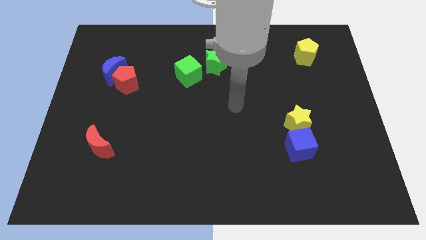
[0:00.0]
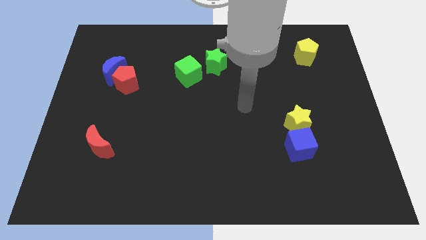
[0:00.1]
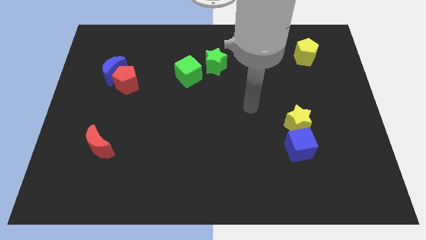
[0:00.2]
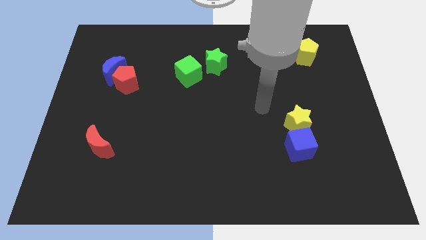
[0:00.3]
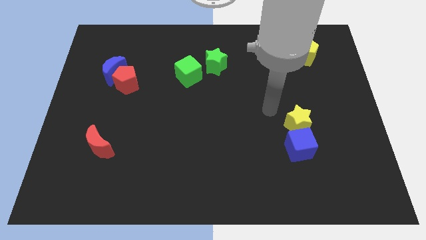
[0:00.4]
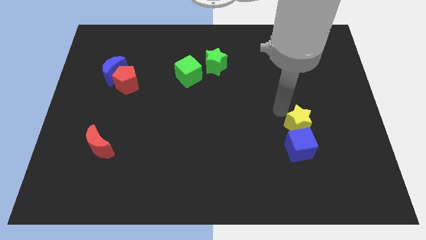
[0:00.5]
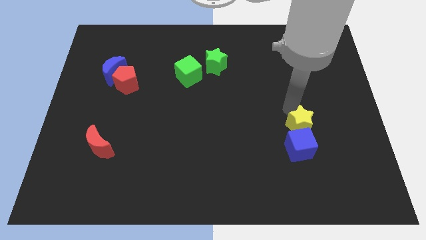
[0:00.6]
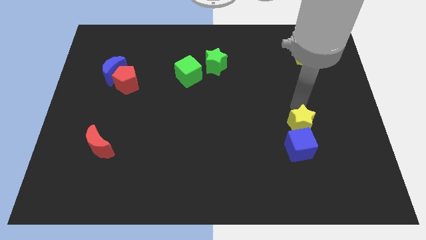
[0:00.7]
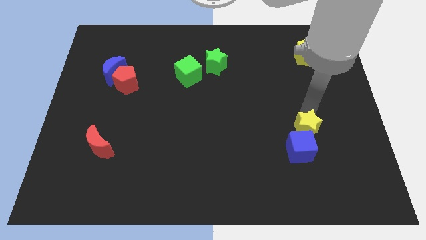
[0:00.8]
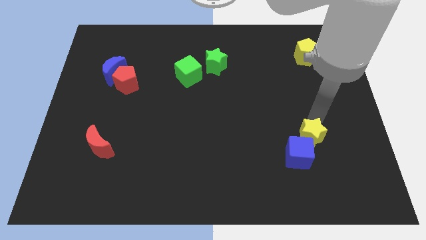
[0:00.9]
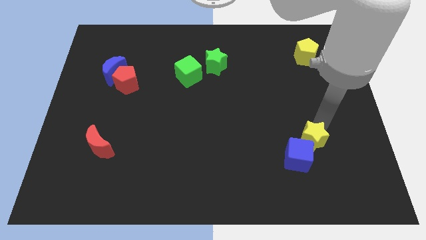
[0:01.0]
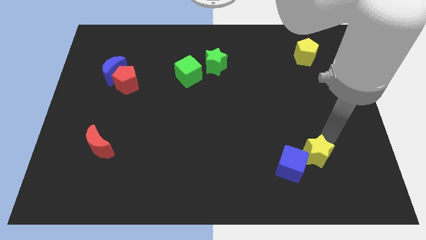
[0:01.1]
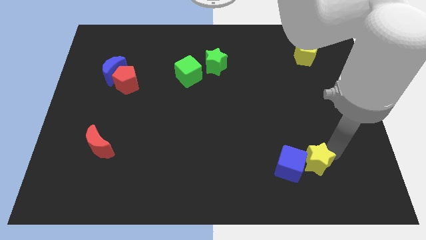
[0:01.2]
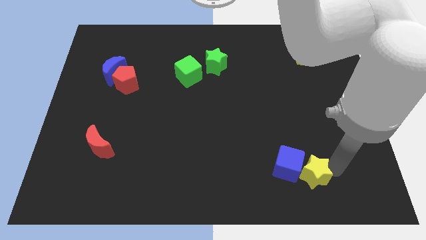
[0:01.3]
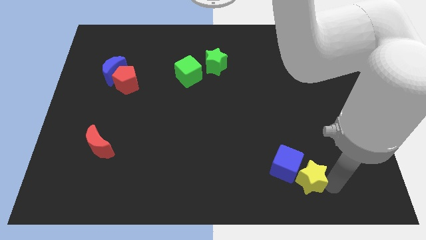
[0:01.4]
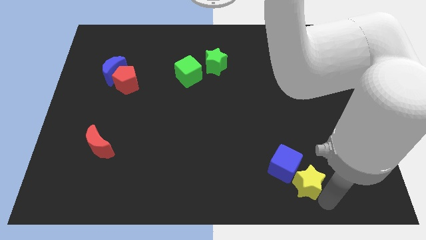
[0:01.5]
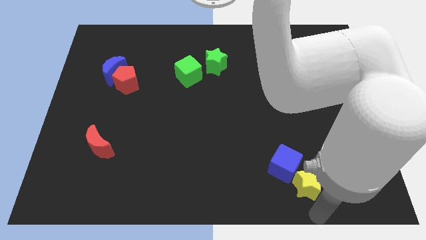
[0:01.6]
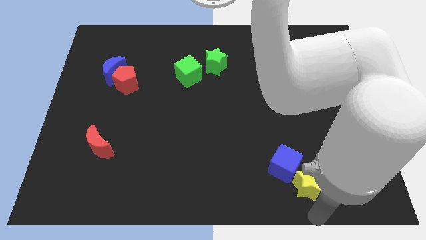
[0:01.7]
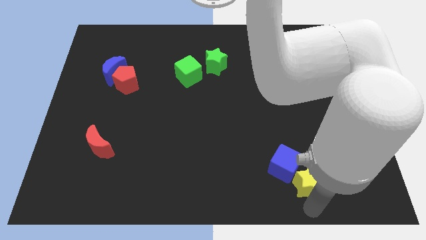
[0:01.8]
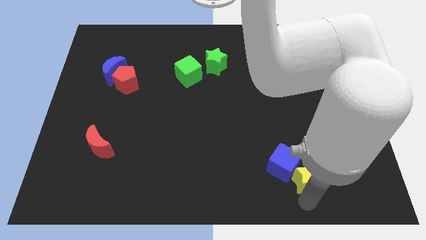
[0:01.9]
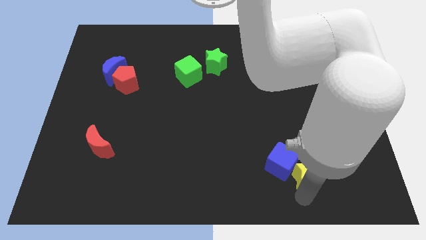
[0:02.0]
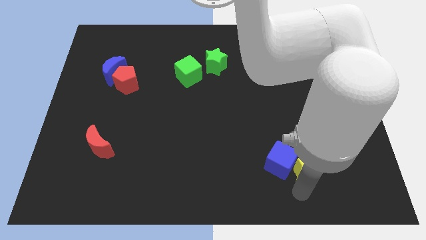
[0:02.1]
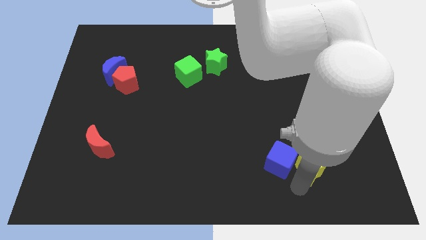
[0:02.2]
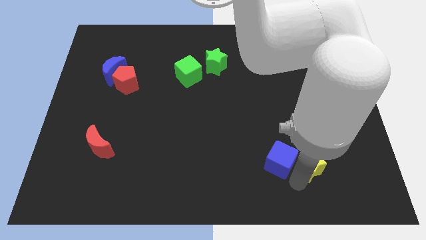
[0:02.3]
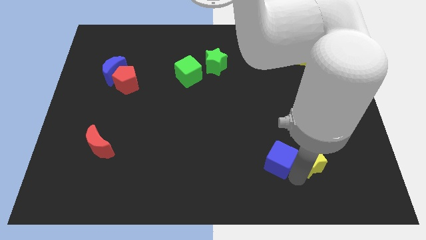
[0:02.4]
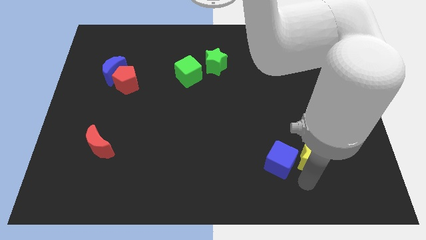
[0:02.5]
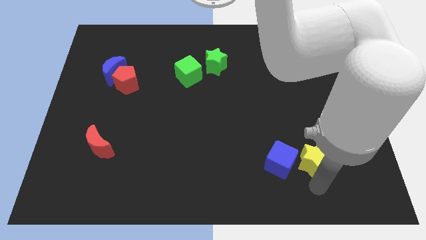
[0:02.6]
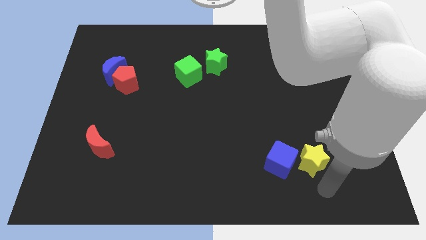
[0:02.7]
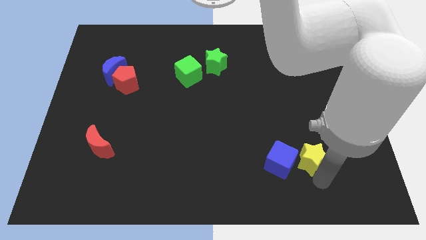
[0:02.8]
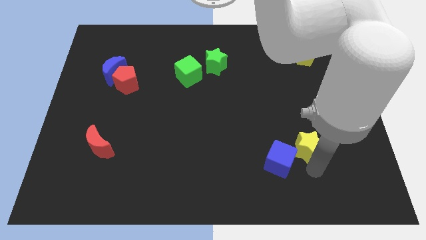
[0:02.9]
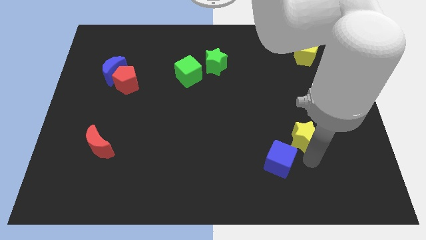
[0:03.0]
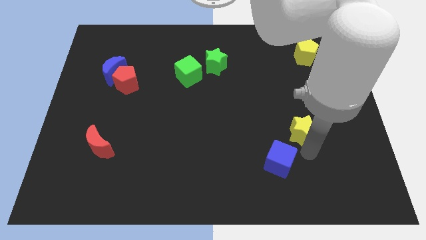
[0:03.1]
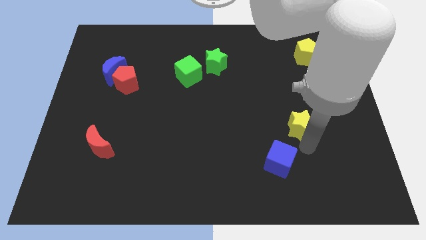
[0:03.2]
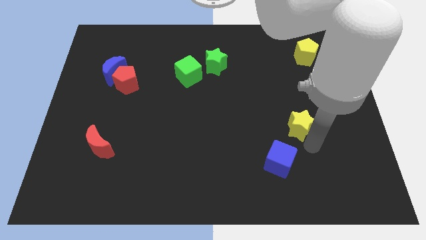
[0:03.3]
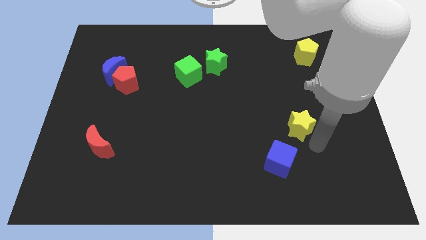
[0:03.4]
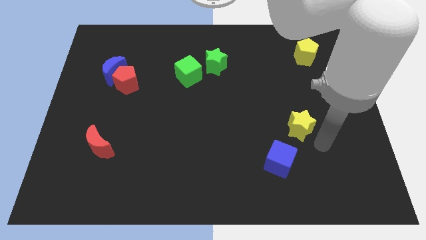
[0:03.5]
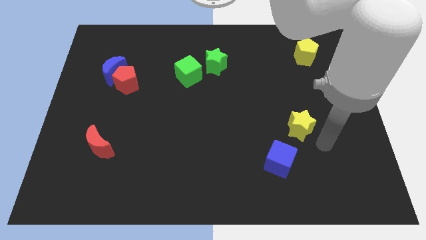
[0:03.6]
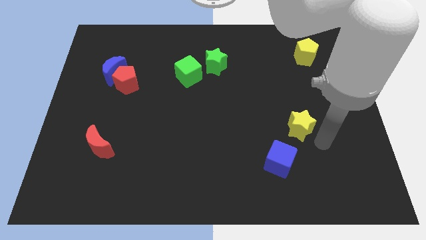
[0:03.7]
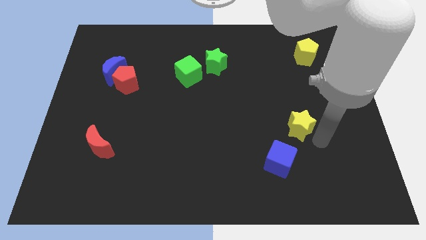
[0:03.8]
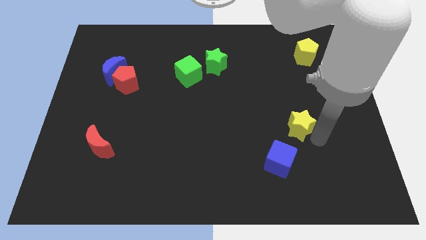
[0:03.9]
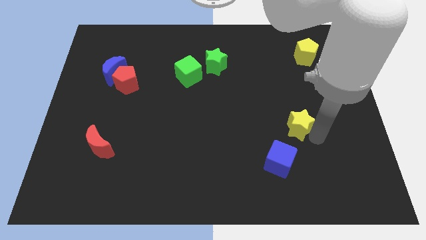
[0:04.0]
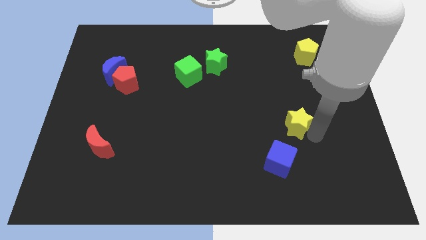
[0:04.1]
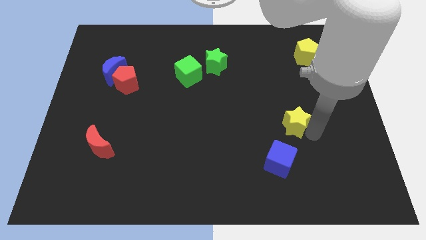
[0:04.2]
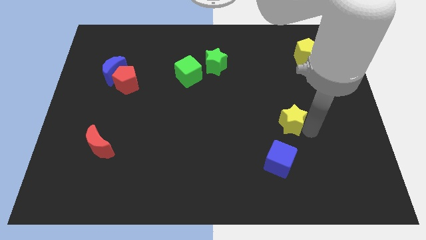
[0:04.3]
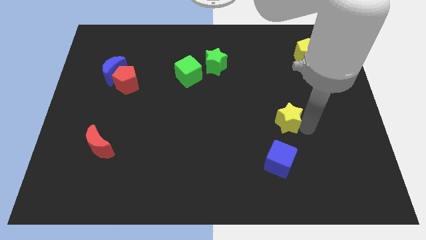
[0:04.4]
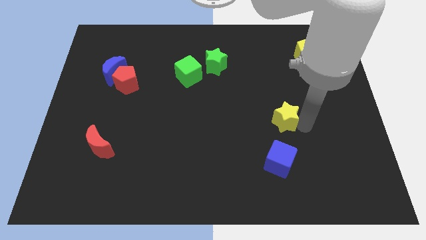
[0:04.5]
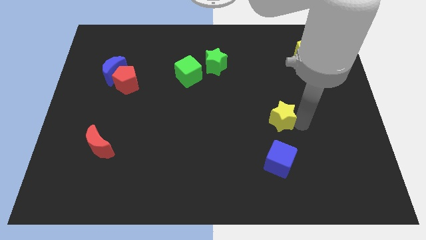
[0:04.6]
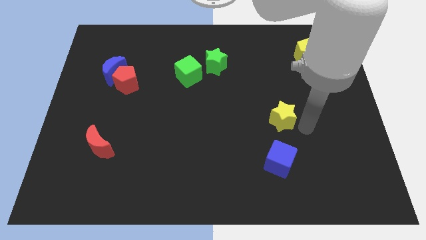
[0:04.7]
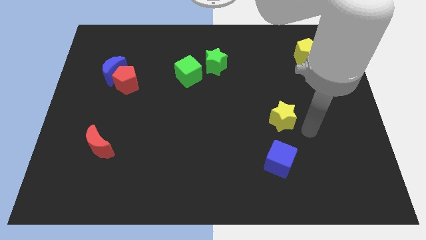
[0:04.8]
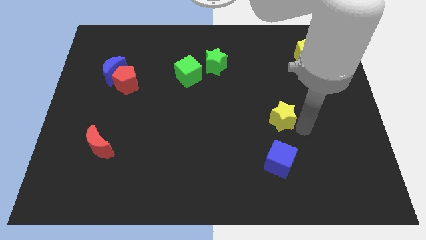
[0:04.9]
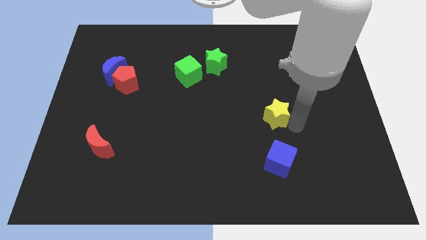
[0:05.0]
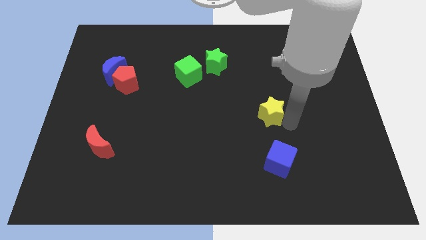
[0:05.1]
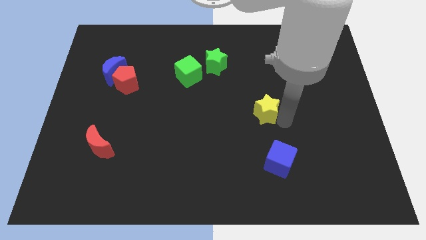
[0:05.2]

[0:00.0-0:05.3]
put the yellow star to the center of the board

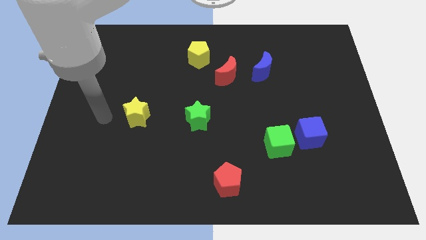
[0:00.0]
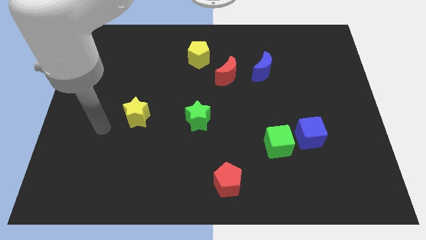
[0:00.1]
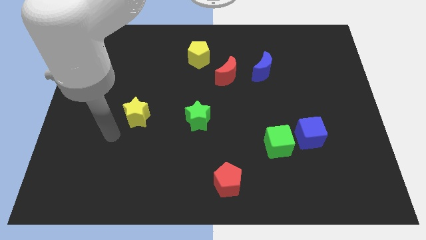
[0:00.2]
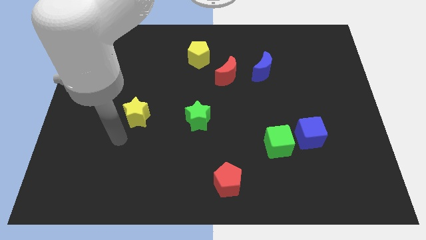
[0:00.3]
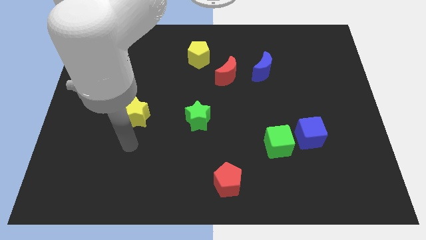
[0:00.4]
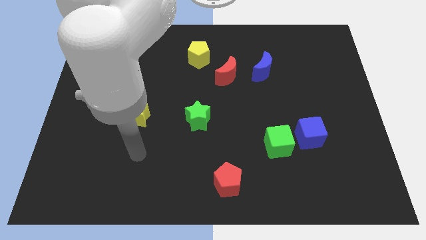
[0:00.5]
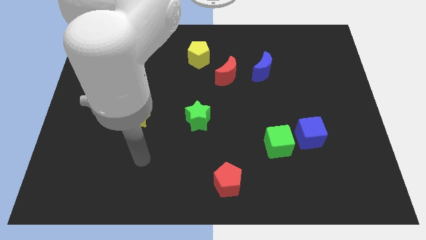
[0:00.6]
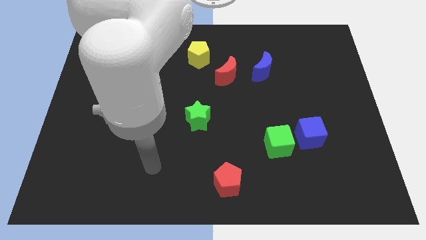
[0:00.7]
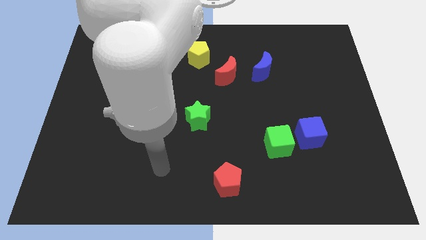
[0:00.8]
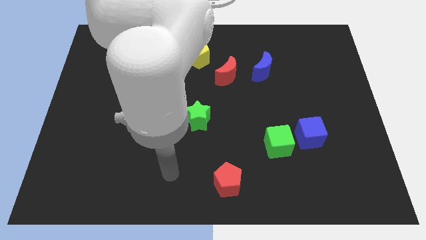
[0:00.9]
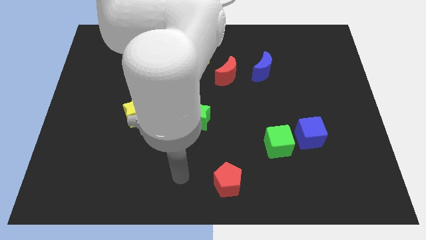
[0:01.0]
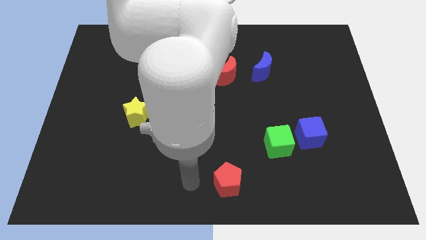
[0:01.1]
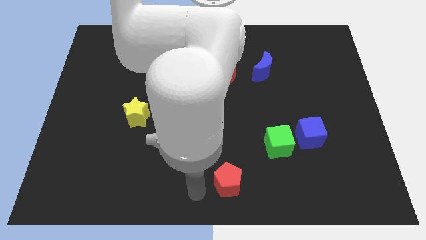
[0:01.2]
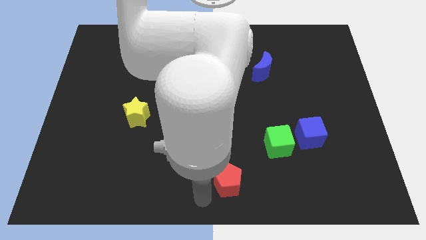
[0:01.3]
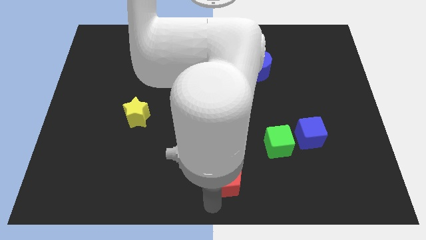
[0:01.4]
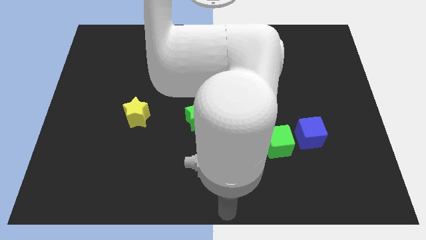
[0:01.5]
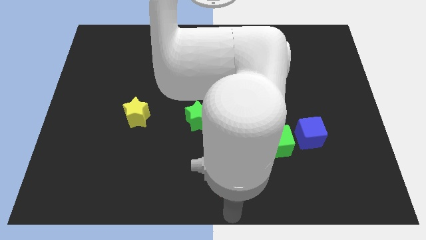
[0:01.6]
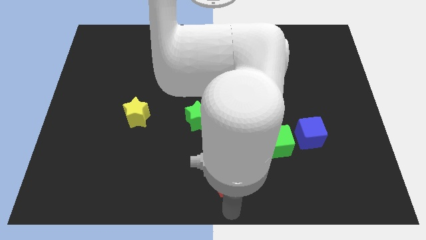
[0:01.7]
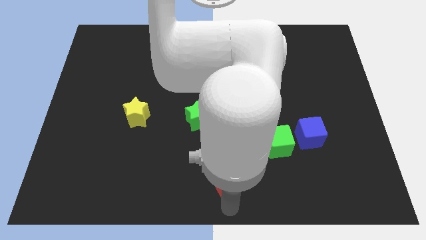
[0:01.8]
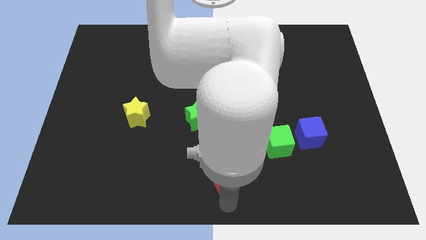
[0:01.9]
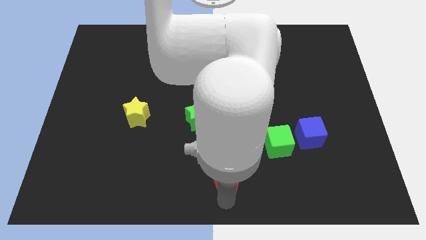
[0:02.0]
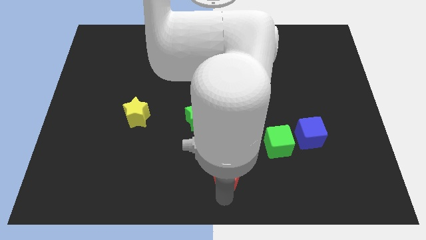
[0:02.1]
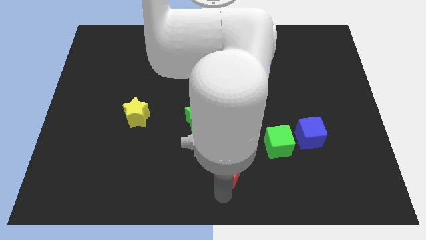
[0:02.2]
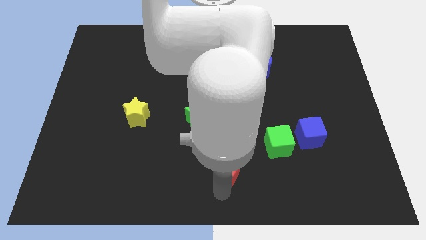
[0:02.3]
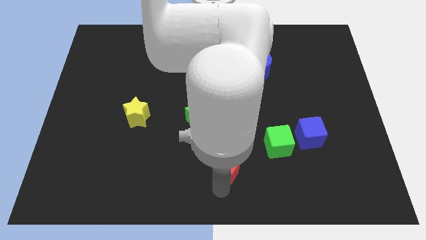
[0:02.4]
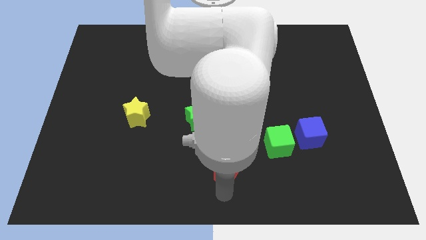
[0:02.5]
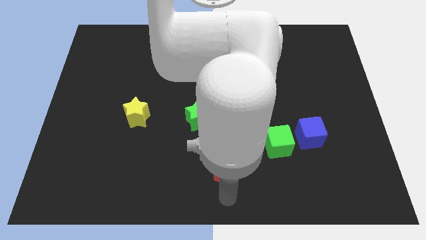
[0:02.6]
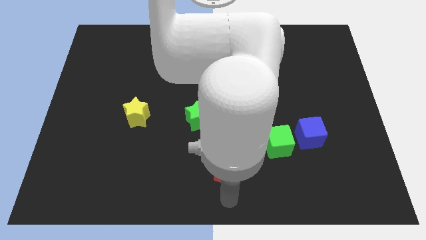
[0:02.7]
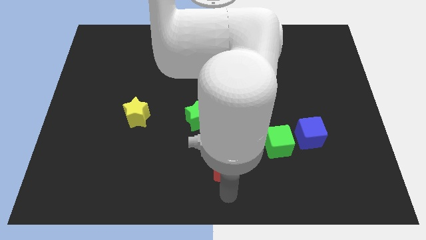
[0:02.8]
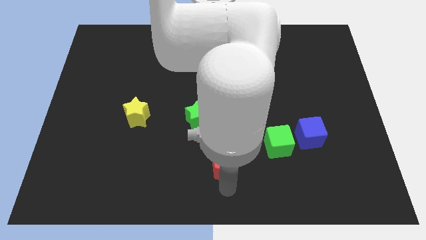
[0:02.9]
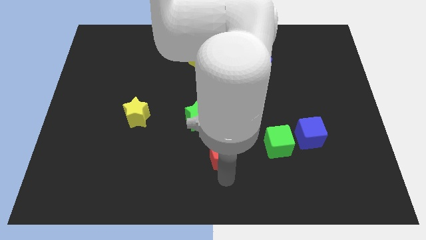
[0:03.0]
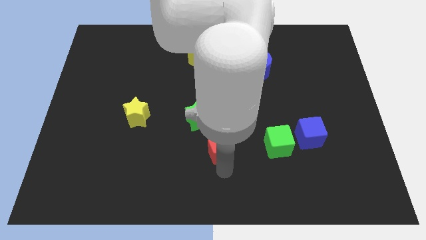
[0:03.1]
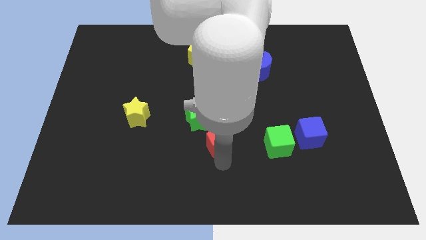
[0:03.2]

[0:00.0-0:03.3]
move the red pentagon to the center
